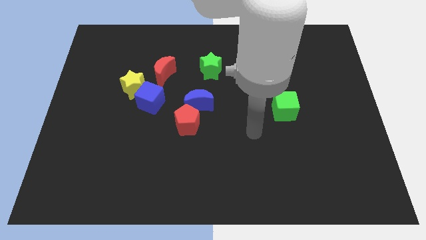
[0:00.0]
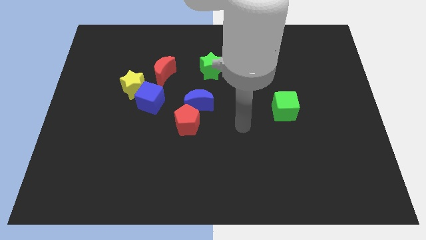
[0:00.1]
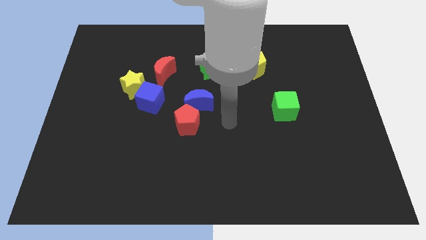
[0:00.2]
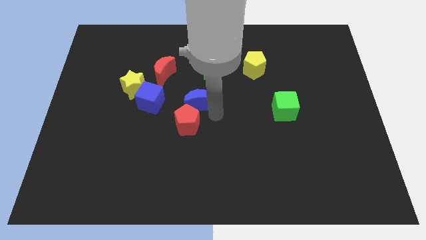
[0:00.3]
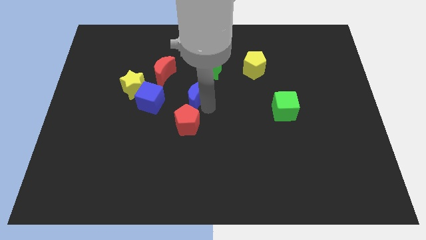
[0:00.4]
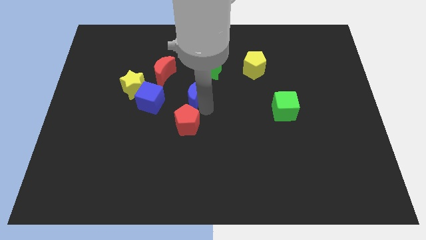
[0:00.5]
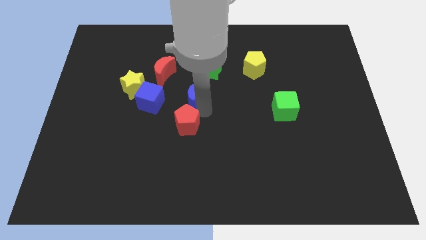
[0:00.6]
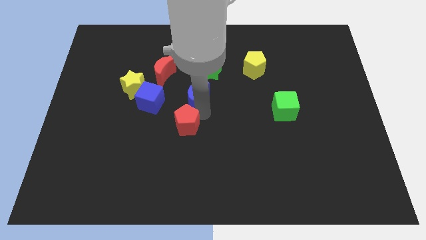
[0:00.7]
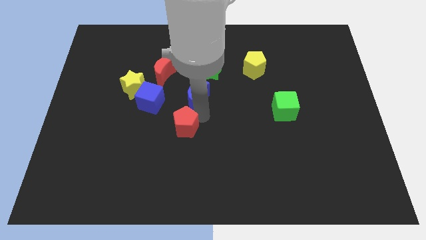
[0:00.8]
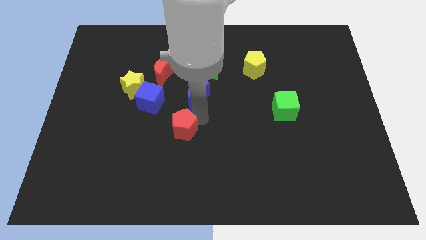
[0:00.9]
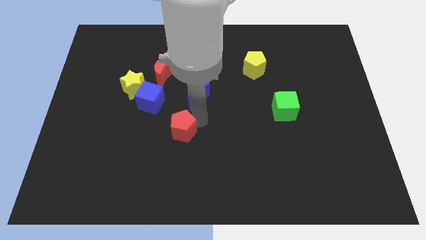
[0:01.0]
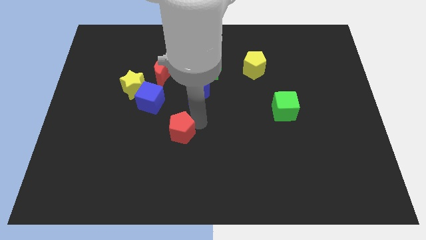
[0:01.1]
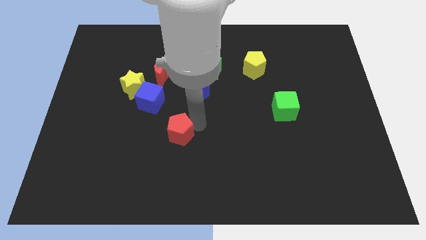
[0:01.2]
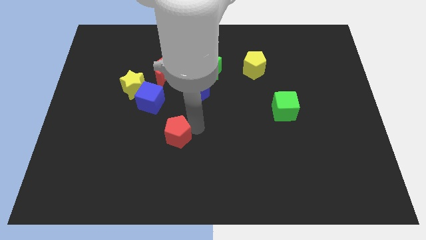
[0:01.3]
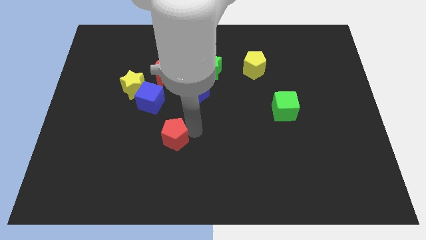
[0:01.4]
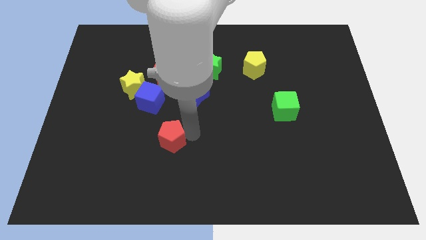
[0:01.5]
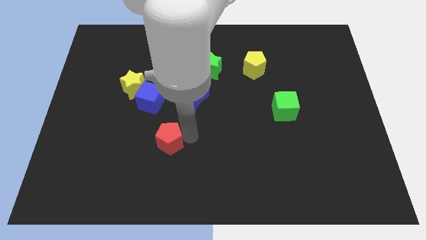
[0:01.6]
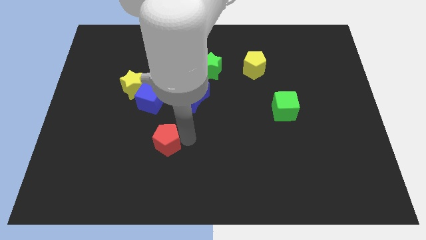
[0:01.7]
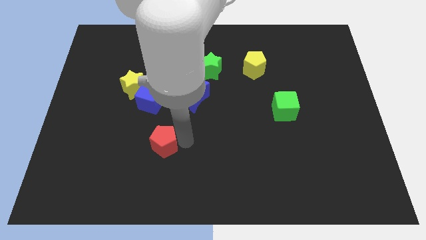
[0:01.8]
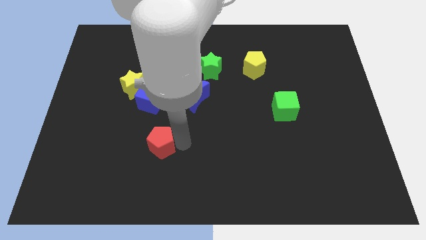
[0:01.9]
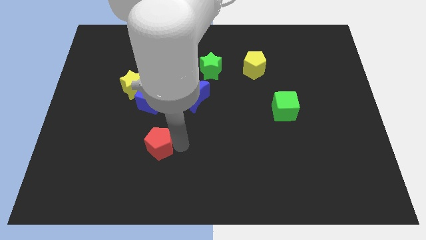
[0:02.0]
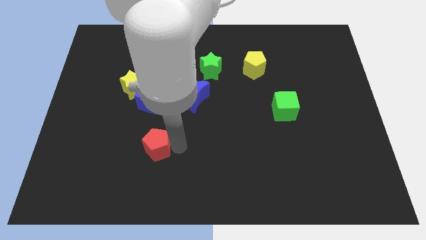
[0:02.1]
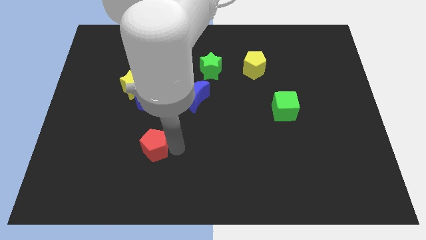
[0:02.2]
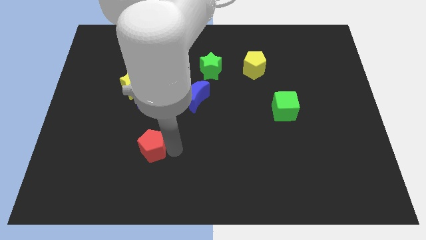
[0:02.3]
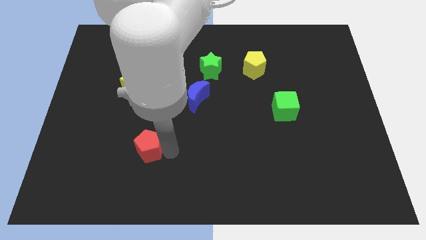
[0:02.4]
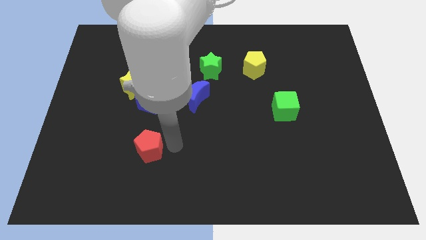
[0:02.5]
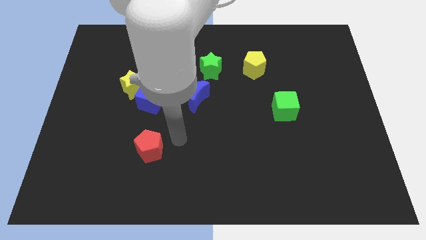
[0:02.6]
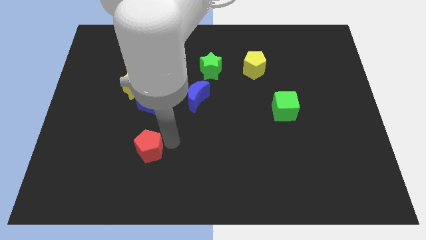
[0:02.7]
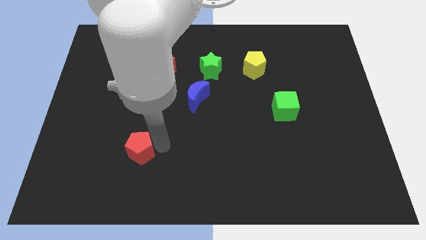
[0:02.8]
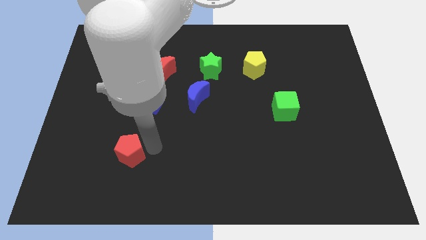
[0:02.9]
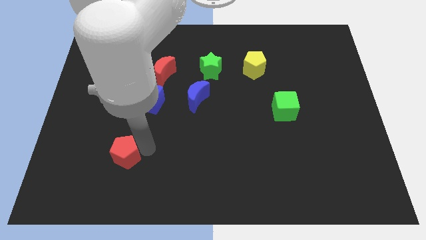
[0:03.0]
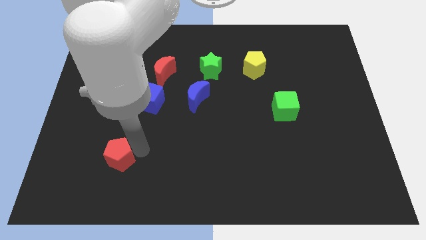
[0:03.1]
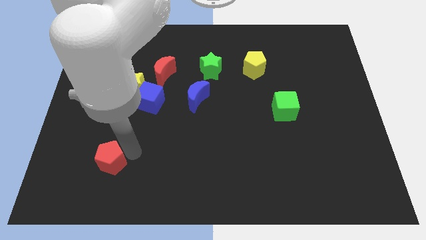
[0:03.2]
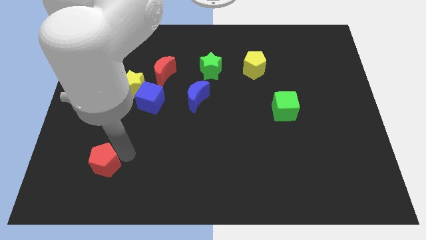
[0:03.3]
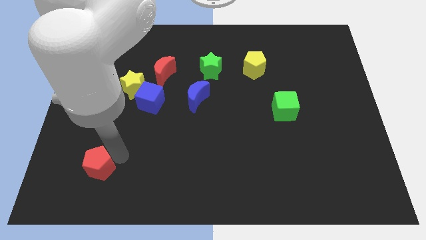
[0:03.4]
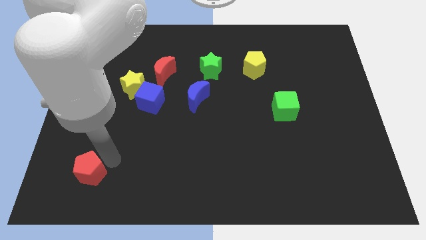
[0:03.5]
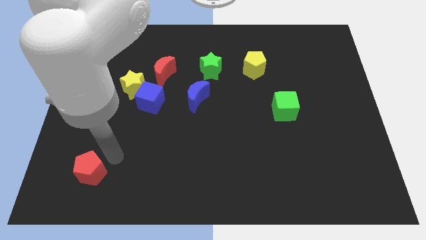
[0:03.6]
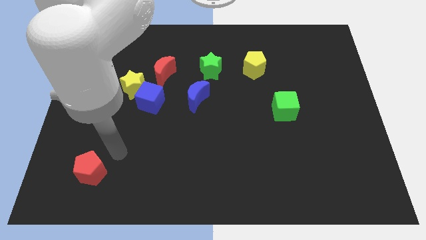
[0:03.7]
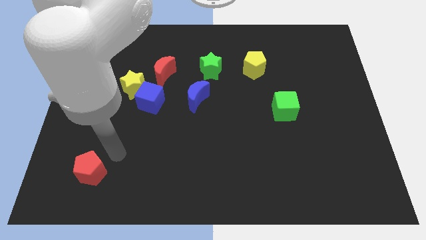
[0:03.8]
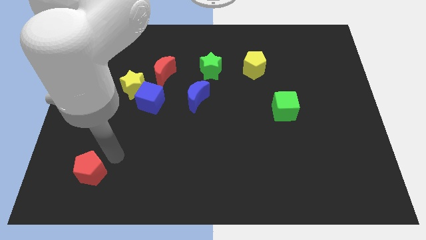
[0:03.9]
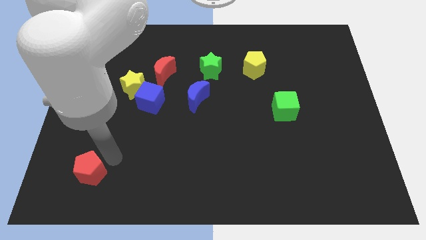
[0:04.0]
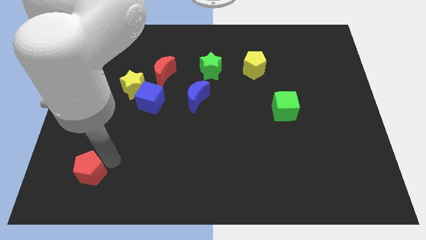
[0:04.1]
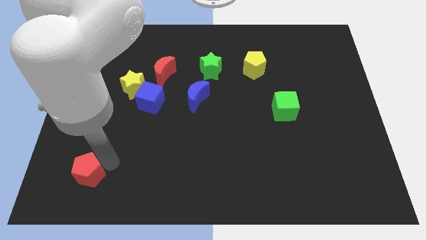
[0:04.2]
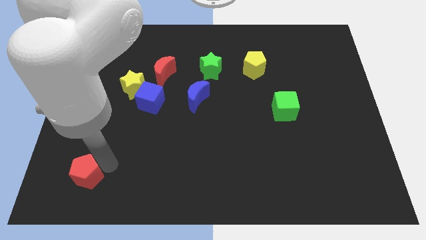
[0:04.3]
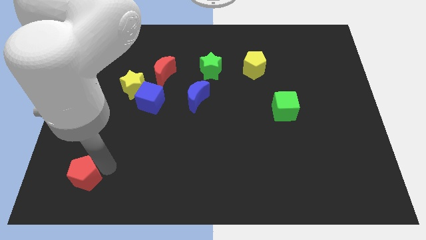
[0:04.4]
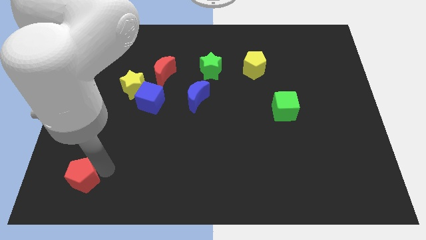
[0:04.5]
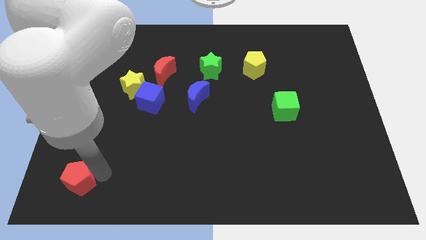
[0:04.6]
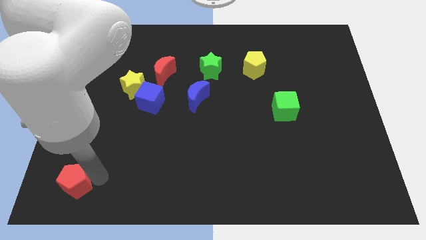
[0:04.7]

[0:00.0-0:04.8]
push the red pentagon to the bottom left

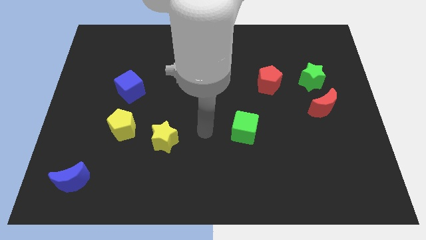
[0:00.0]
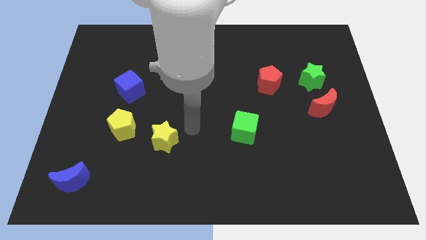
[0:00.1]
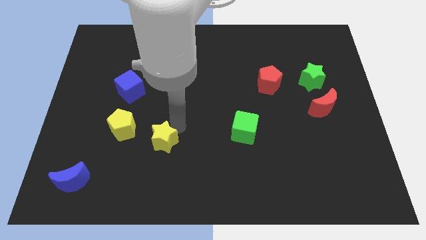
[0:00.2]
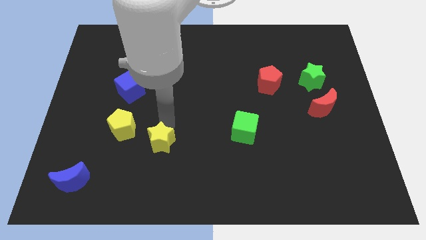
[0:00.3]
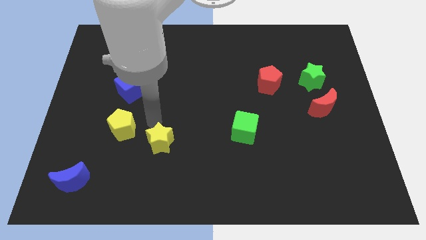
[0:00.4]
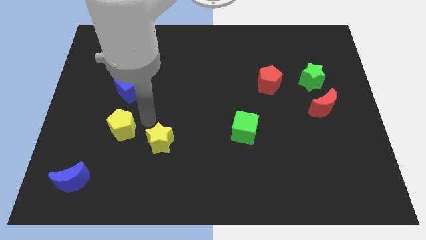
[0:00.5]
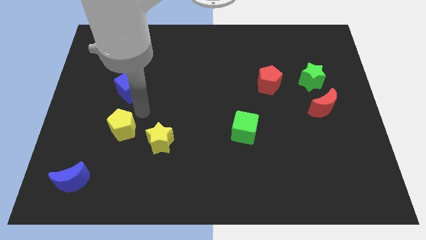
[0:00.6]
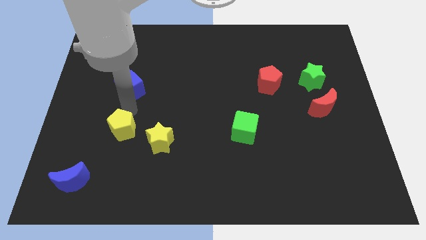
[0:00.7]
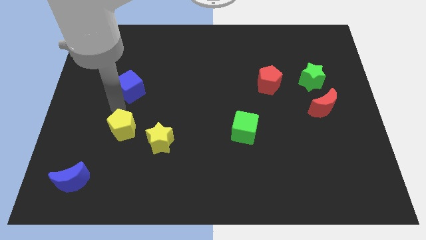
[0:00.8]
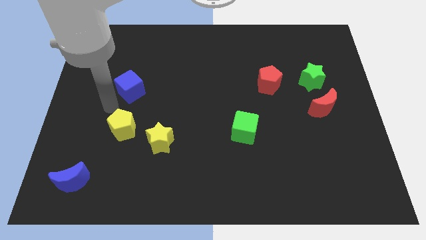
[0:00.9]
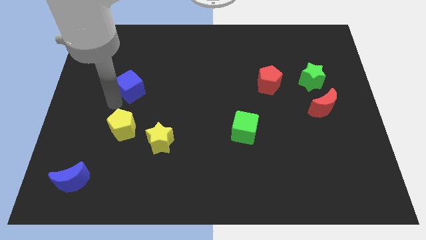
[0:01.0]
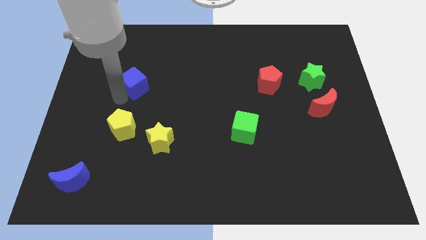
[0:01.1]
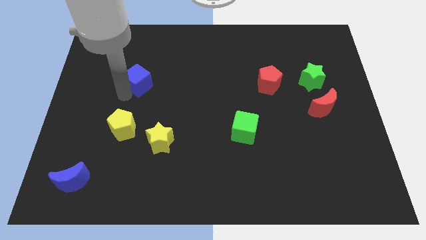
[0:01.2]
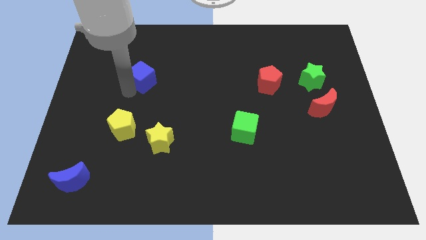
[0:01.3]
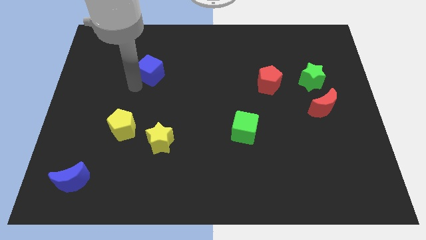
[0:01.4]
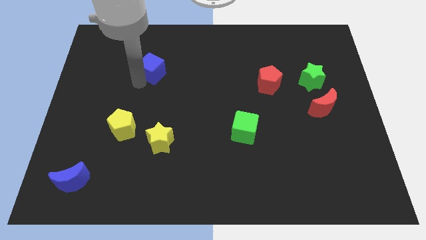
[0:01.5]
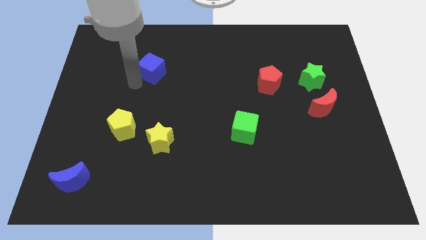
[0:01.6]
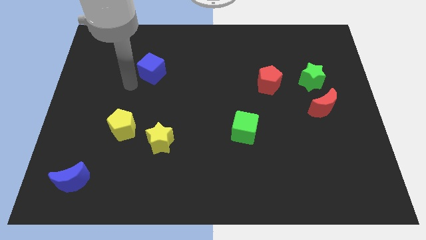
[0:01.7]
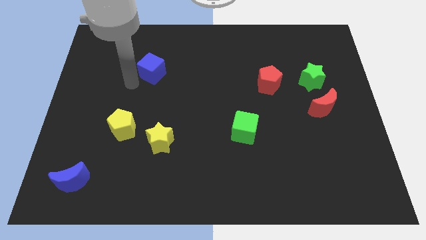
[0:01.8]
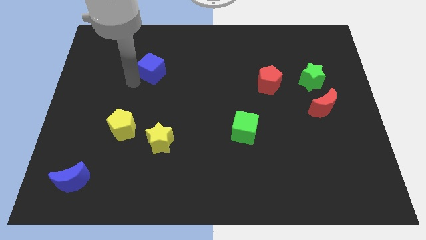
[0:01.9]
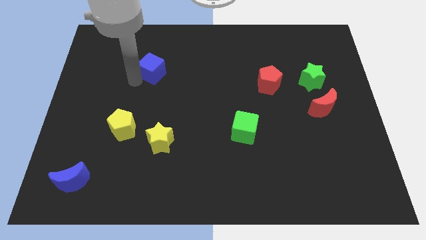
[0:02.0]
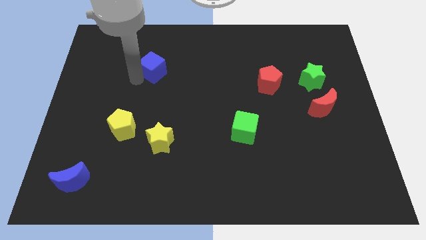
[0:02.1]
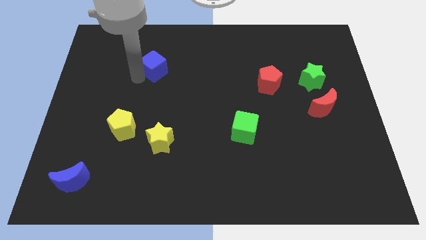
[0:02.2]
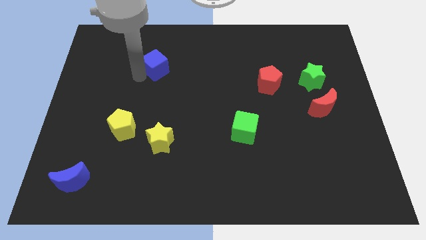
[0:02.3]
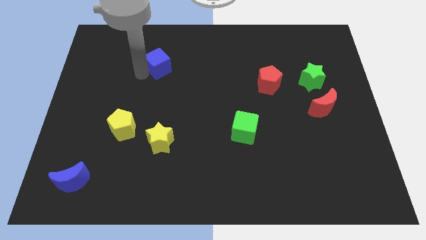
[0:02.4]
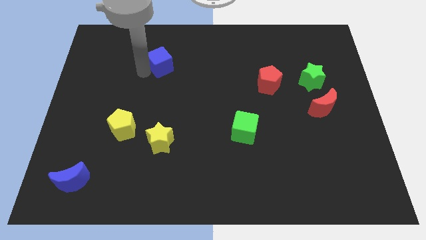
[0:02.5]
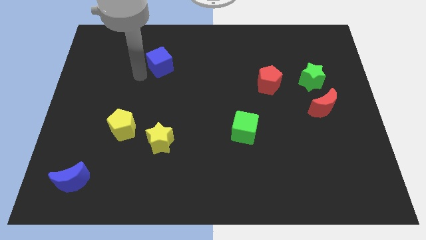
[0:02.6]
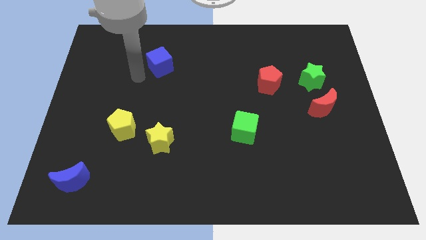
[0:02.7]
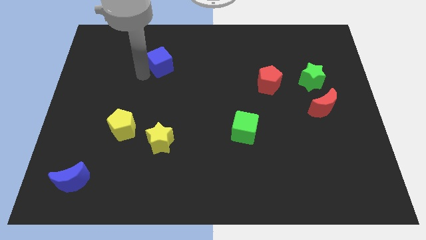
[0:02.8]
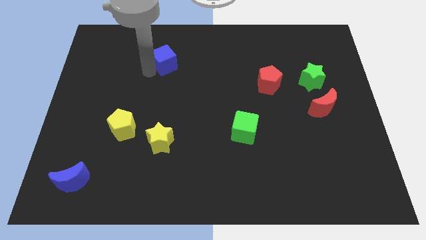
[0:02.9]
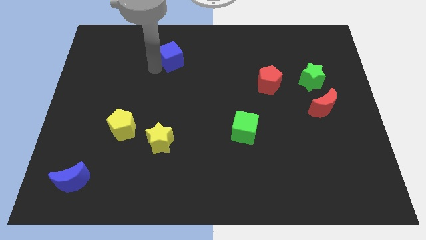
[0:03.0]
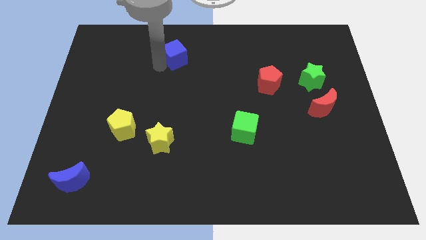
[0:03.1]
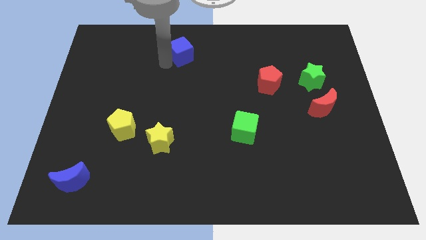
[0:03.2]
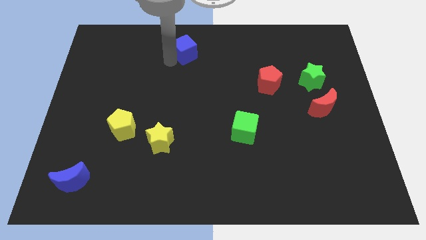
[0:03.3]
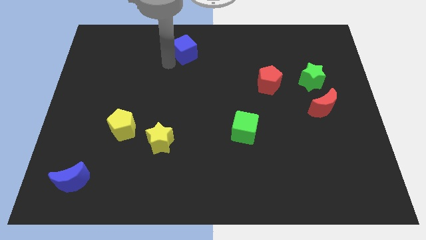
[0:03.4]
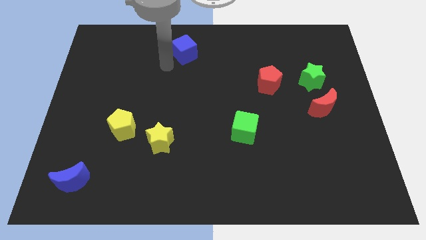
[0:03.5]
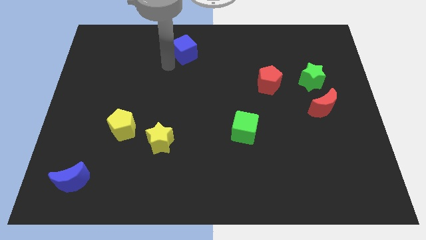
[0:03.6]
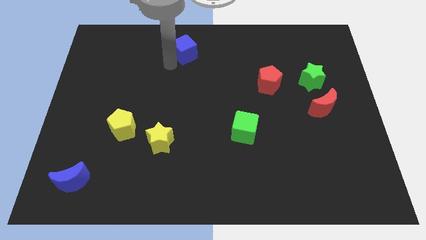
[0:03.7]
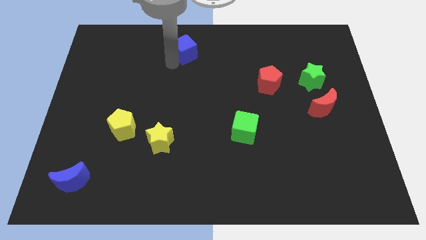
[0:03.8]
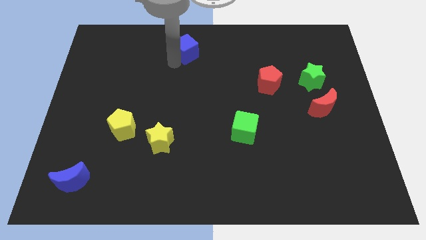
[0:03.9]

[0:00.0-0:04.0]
put the blue cube to the towards your base
